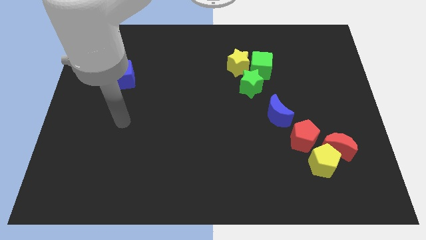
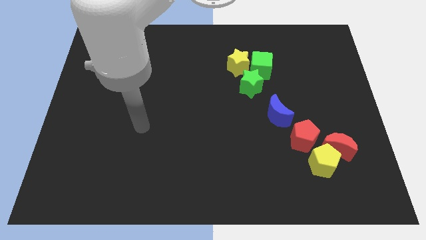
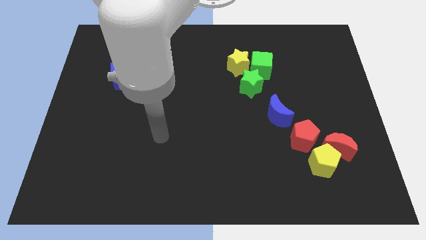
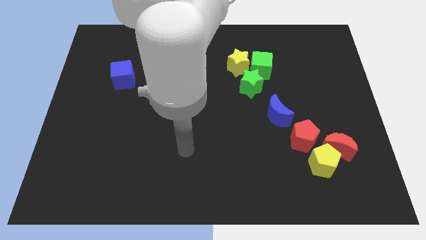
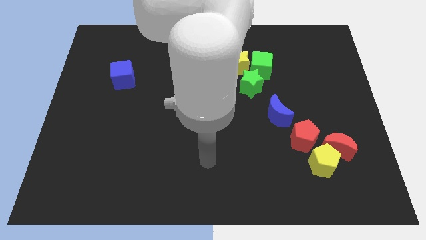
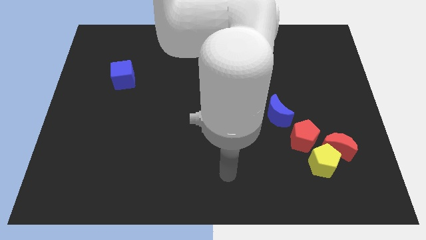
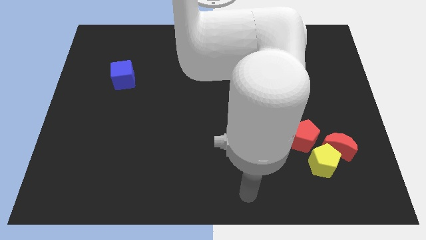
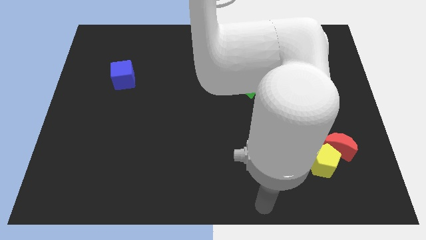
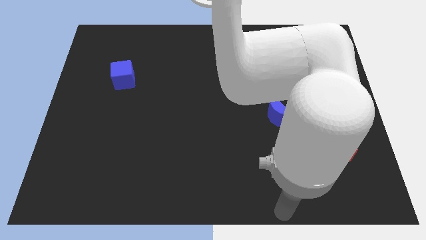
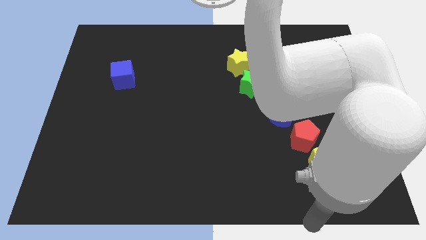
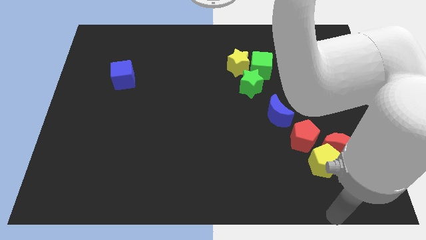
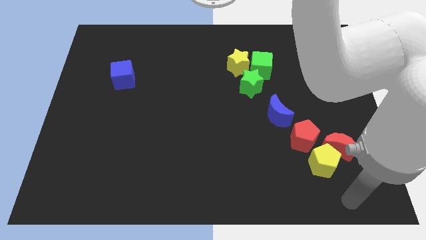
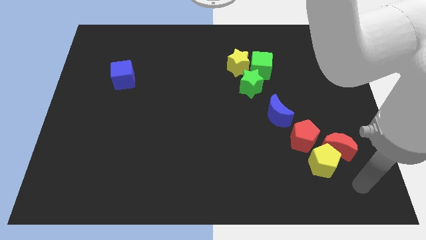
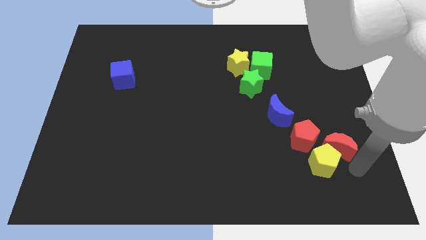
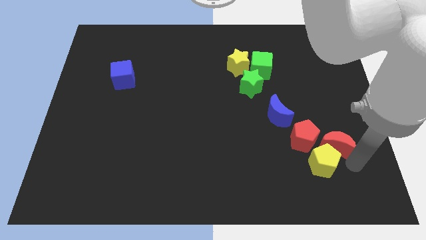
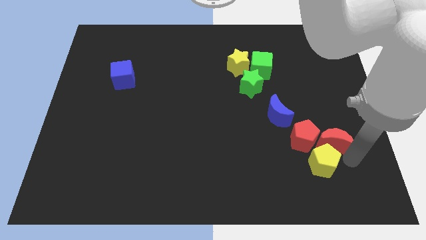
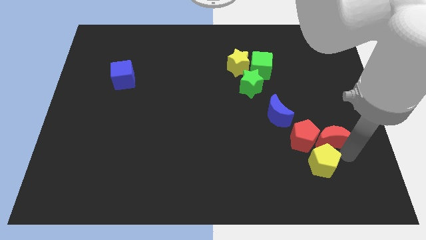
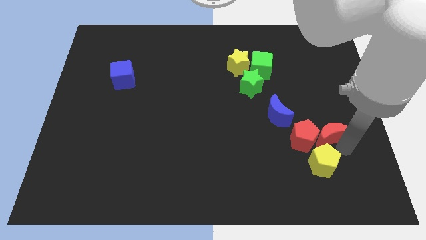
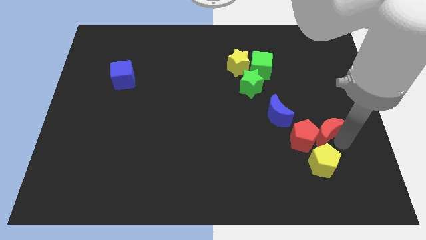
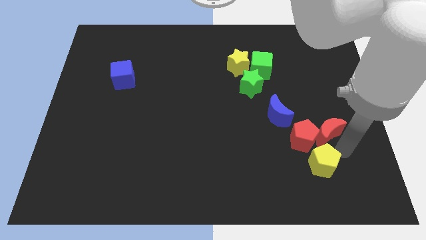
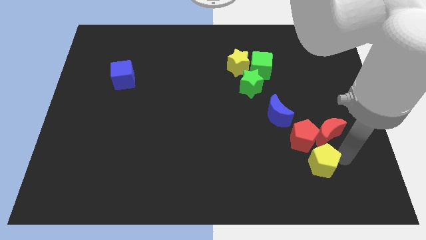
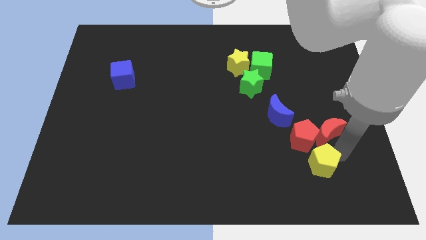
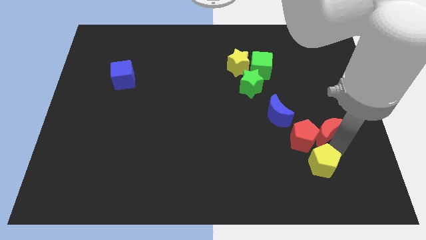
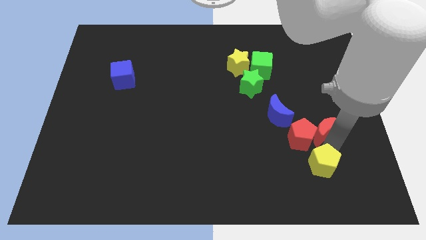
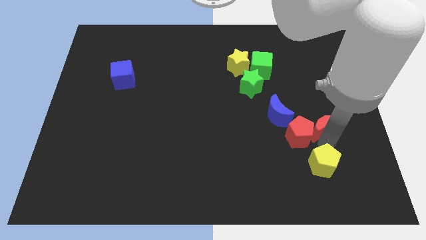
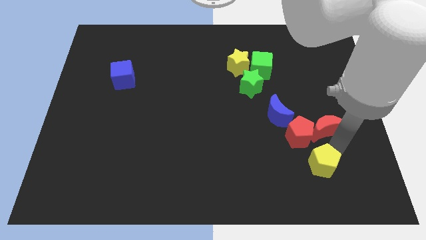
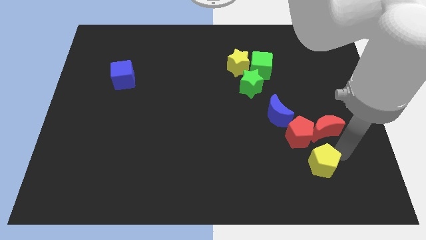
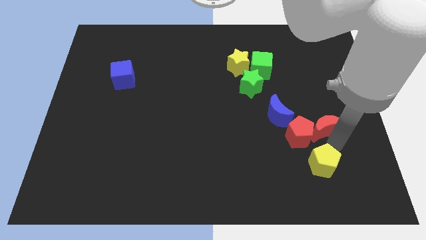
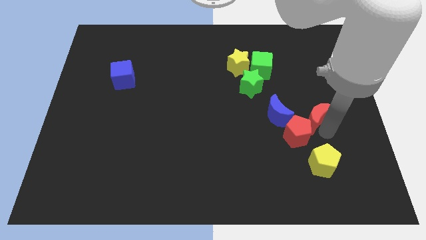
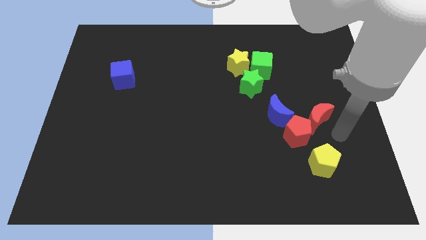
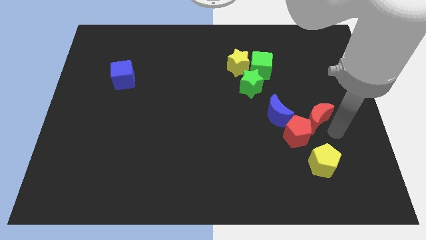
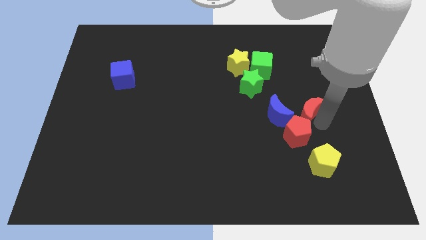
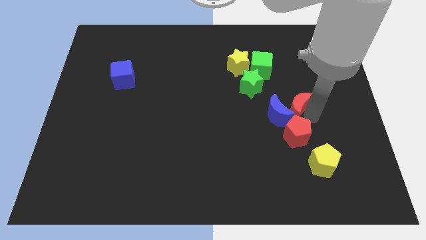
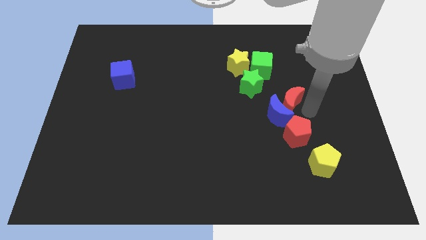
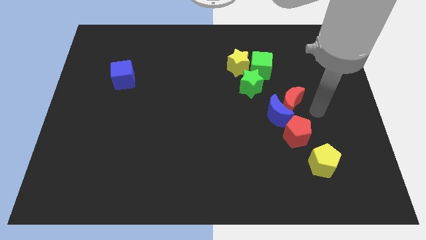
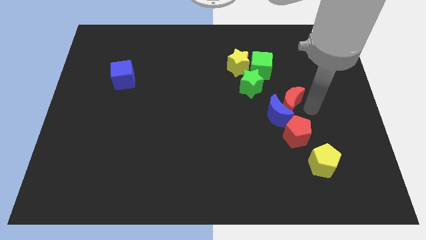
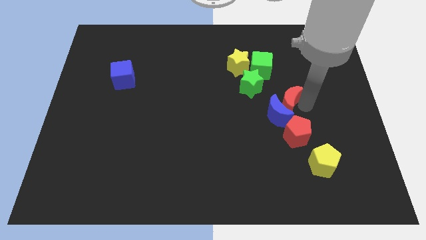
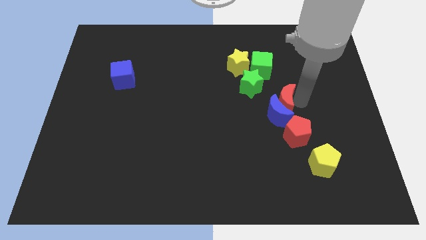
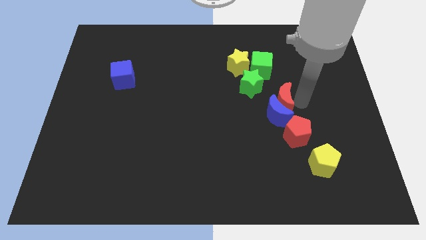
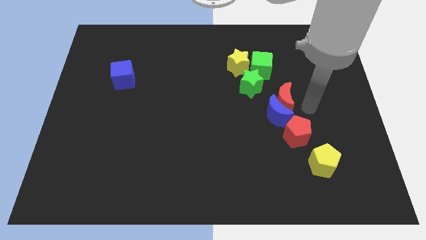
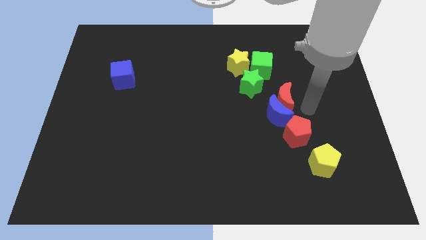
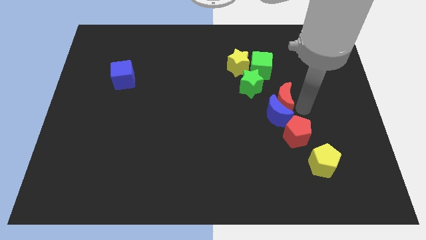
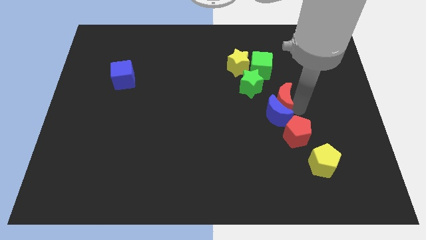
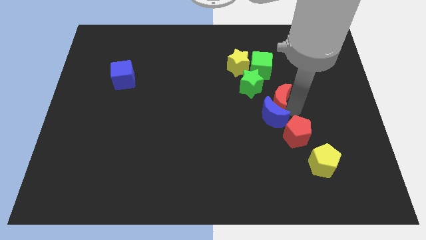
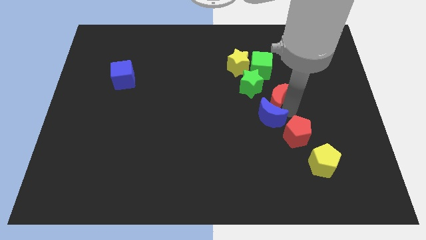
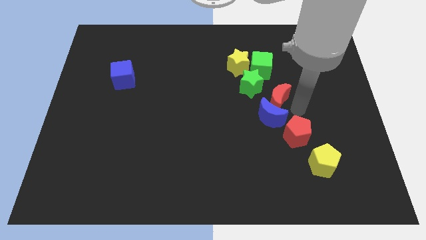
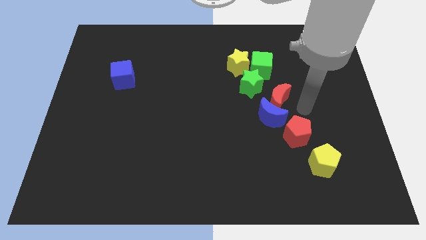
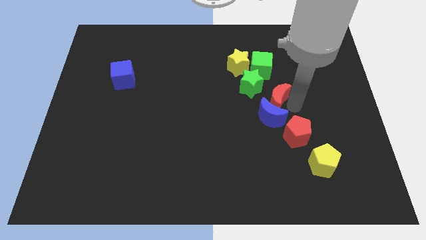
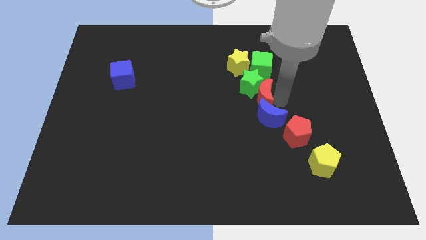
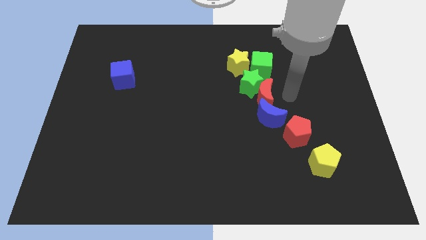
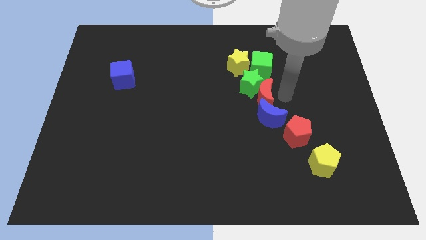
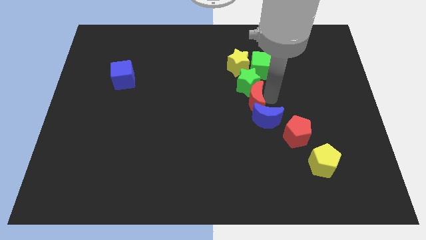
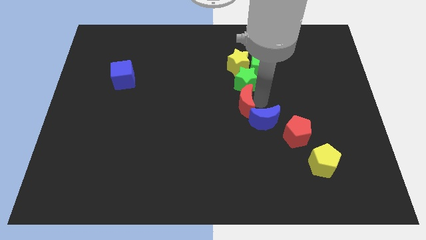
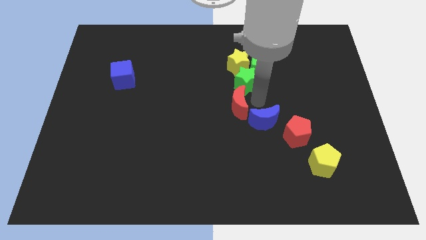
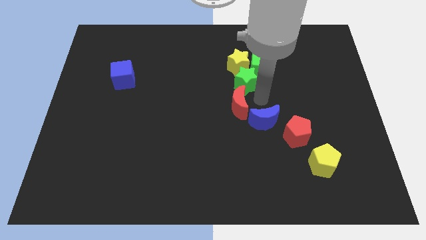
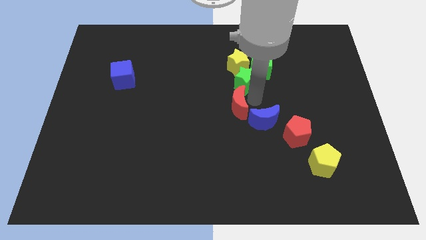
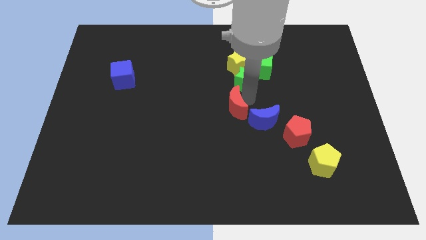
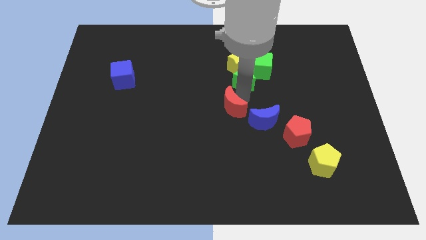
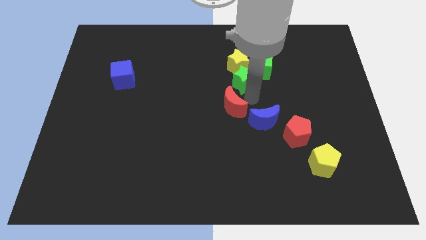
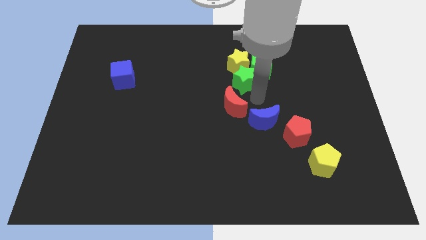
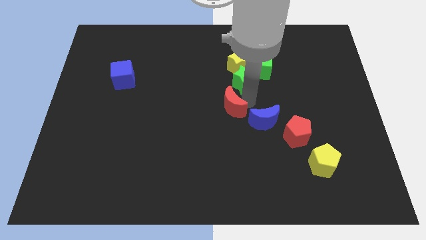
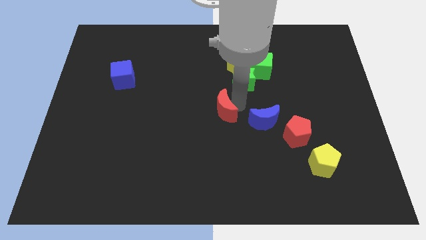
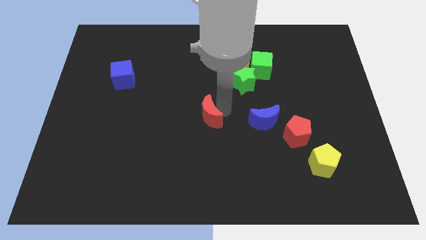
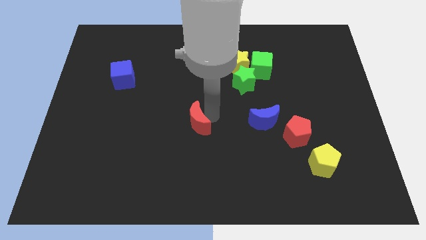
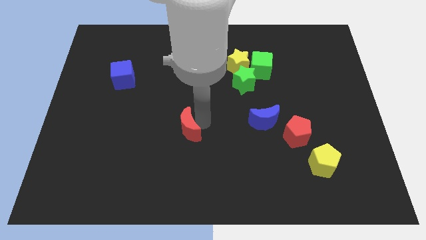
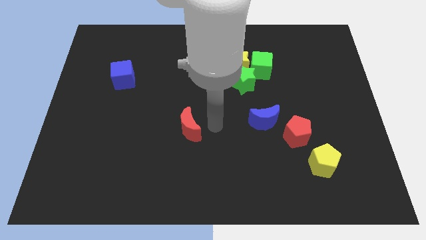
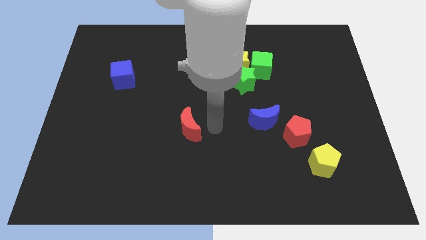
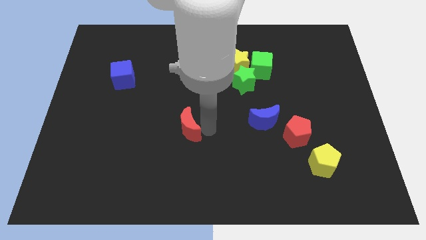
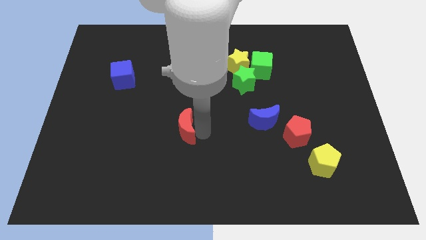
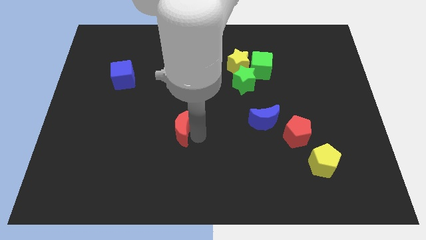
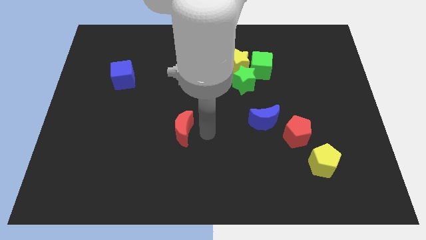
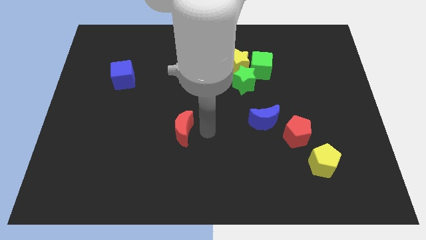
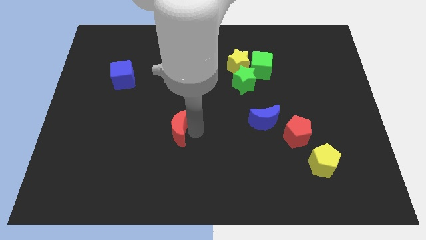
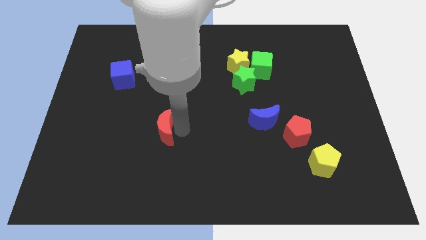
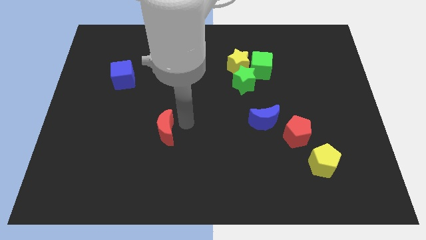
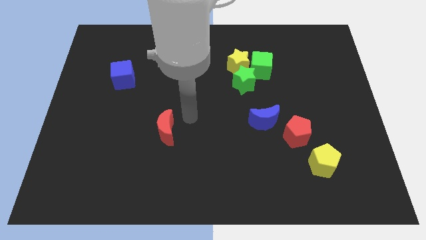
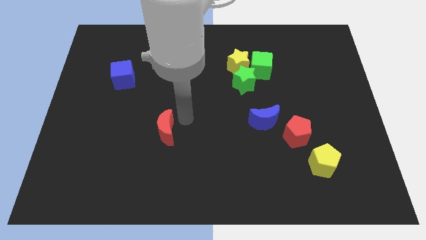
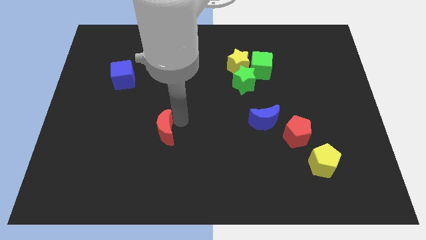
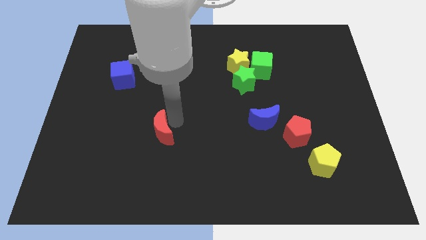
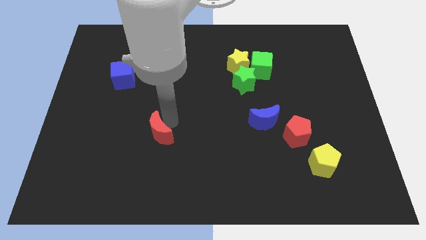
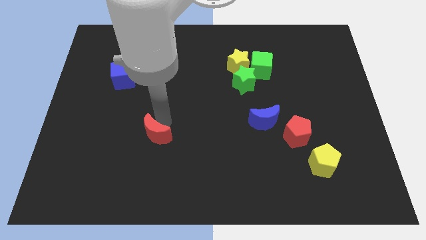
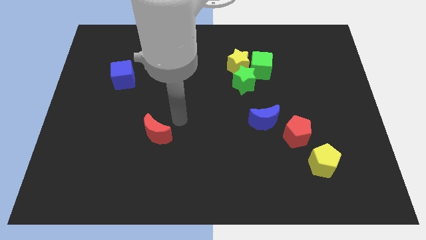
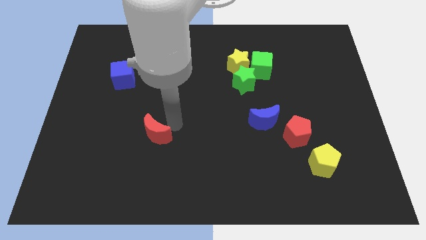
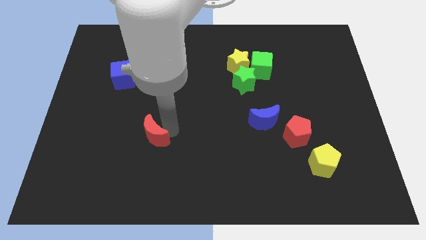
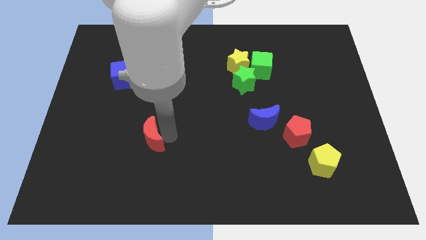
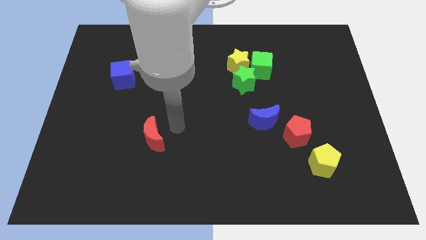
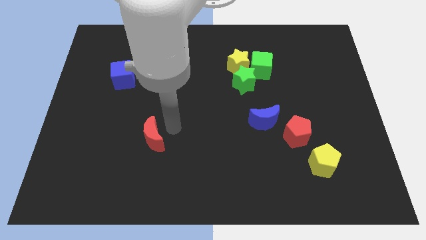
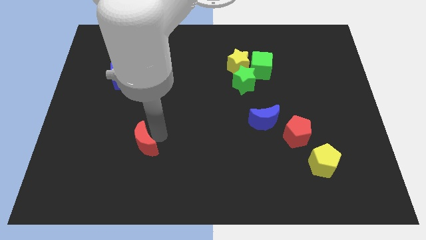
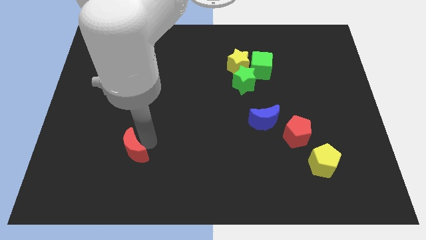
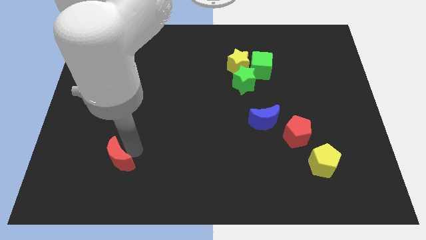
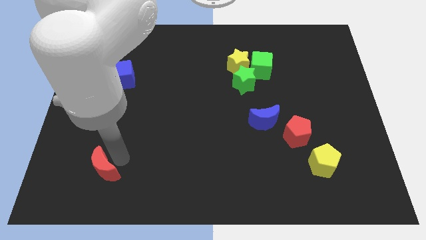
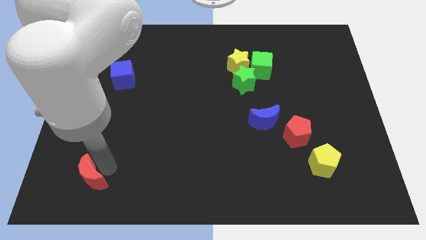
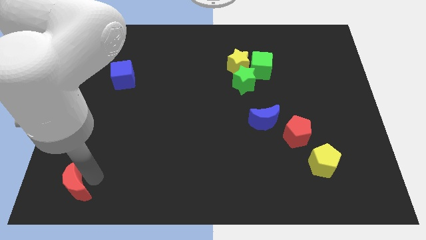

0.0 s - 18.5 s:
move the red moon to the bottom left of the board
